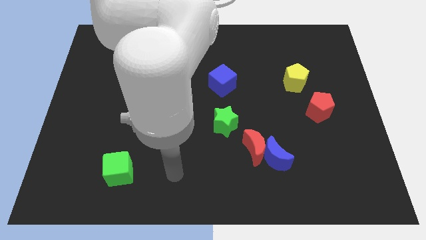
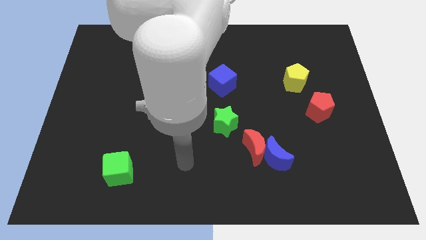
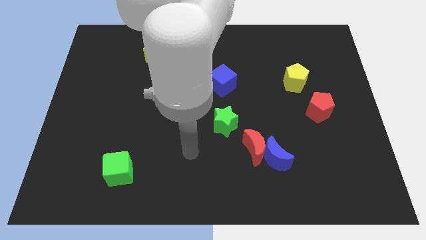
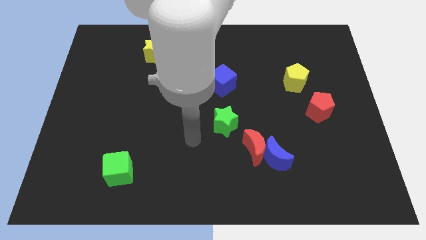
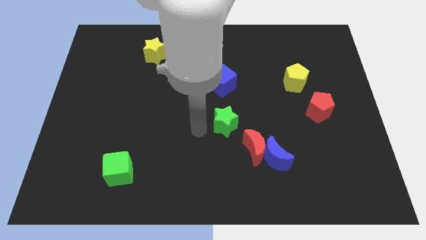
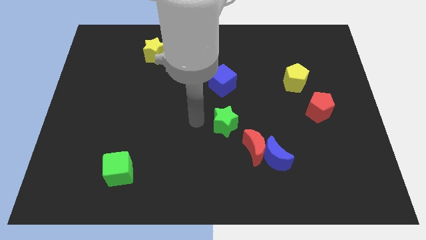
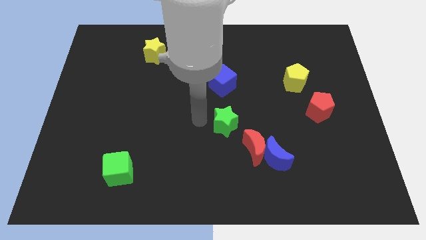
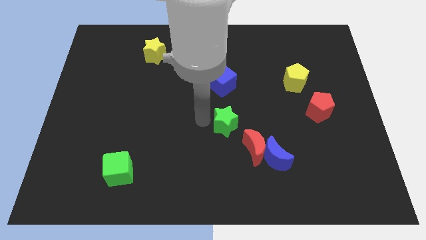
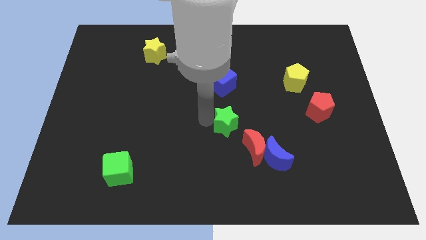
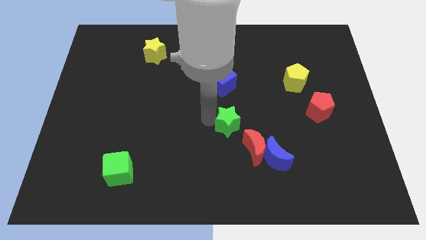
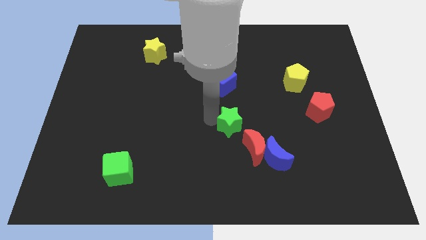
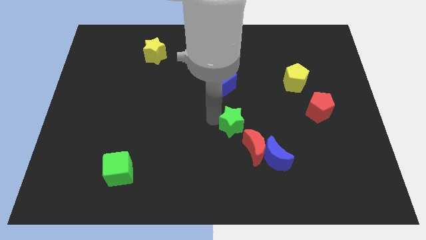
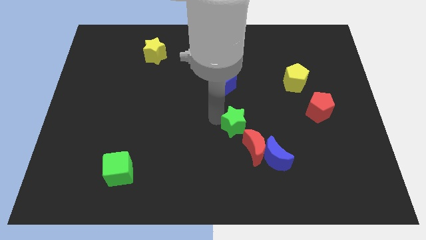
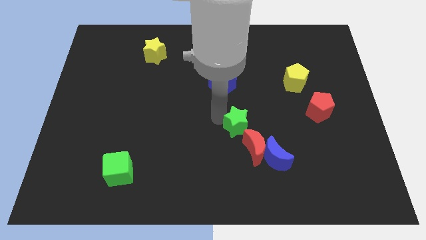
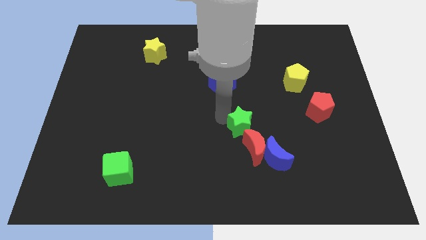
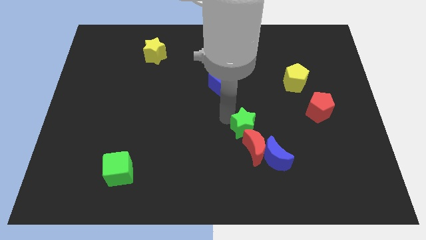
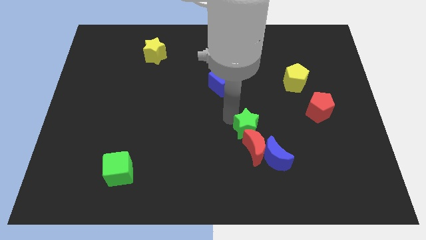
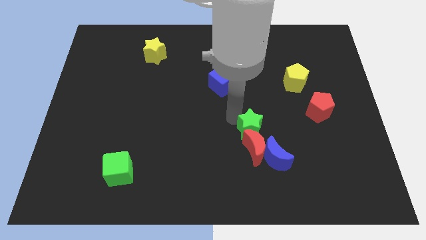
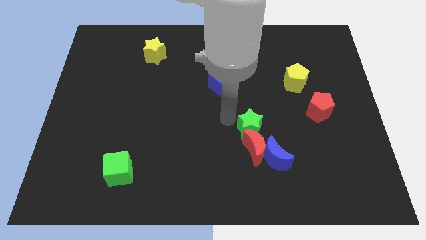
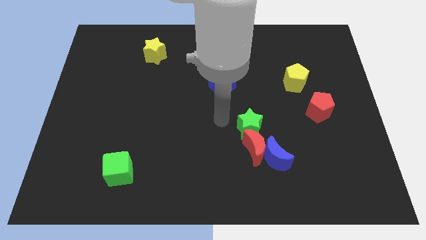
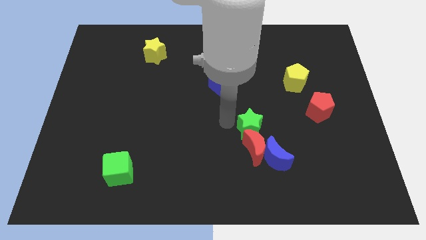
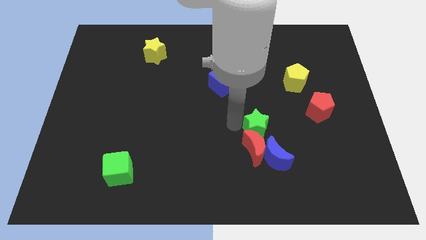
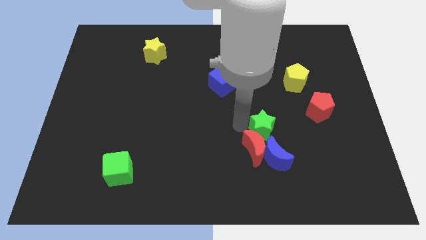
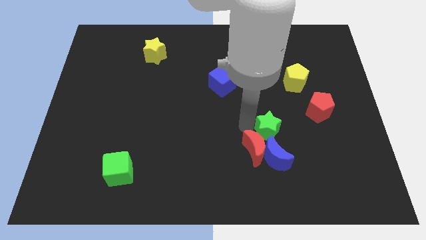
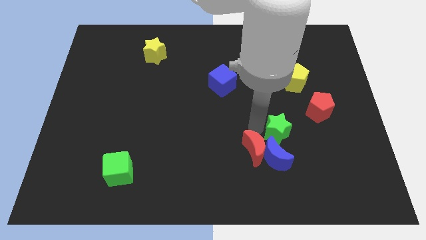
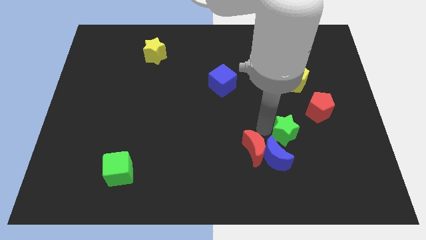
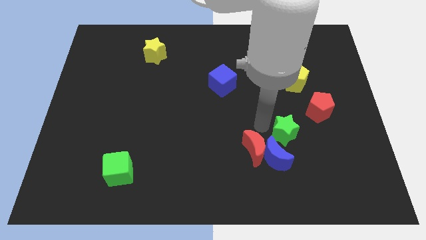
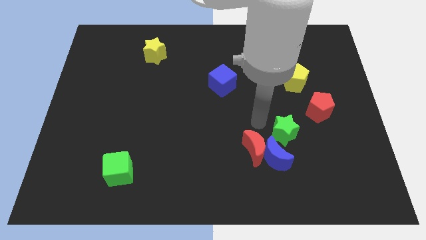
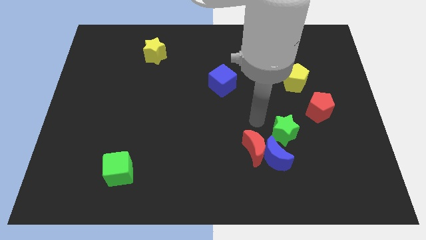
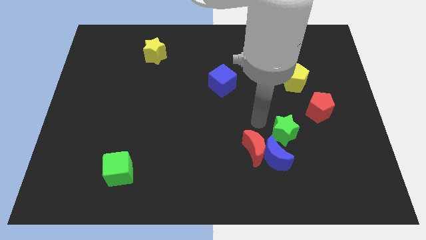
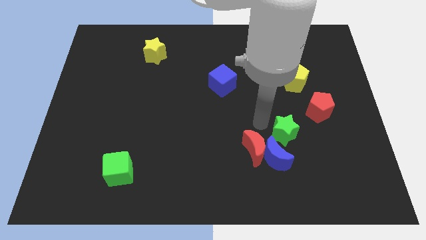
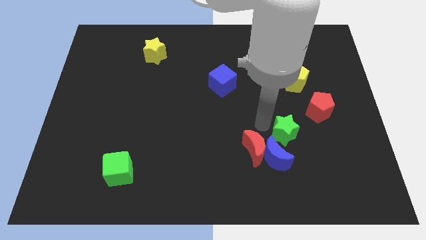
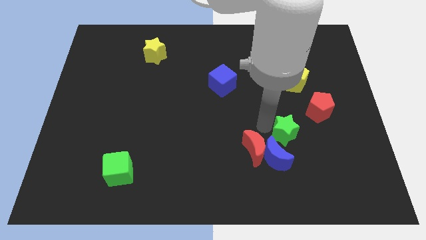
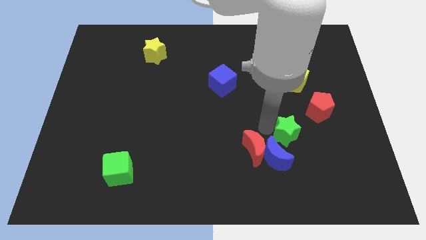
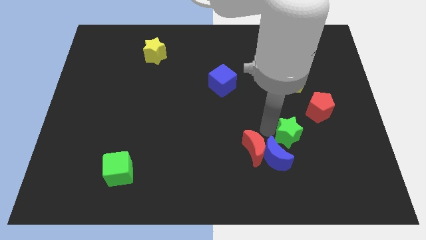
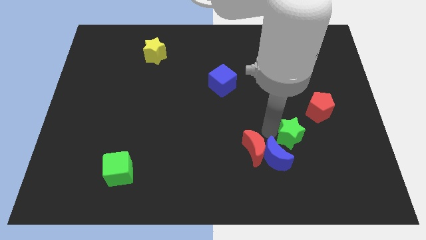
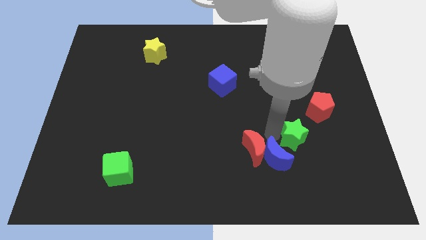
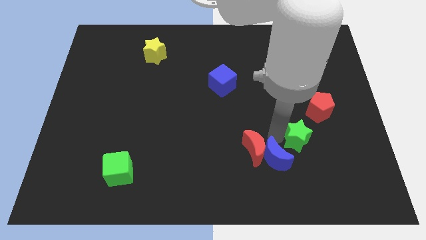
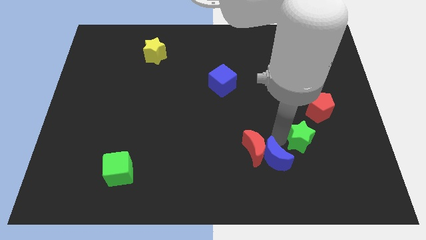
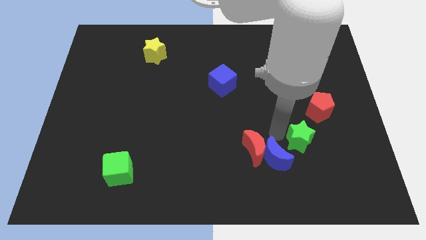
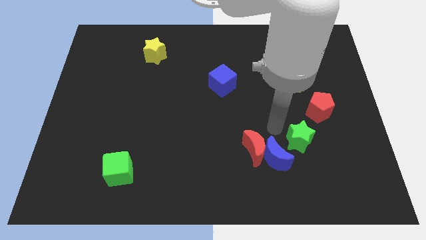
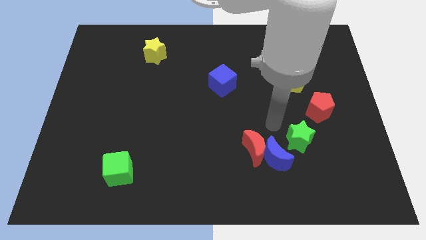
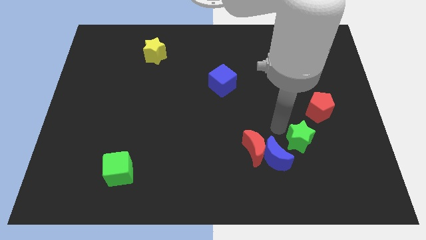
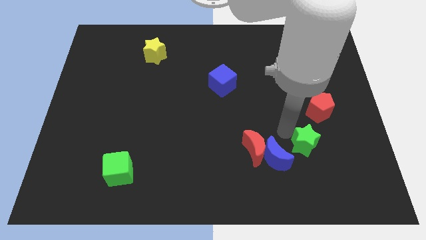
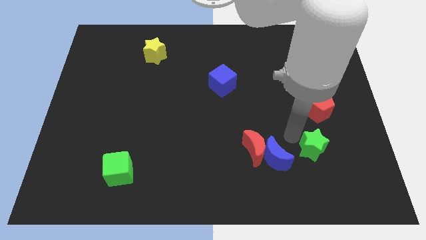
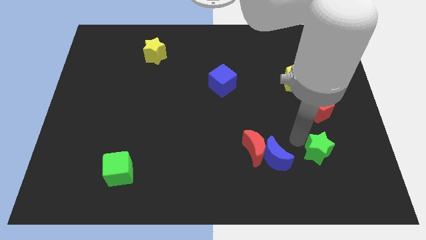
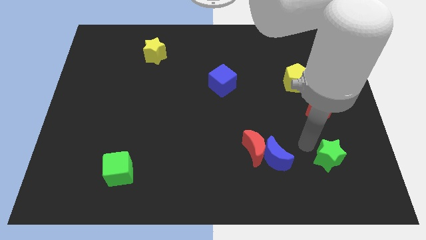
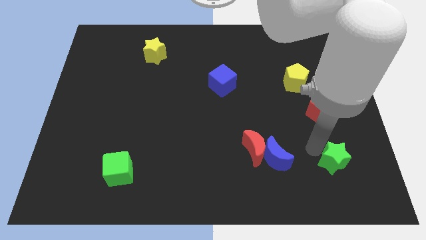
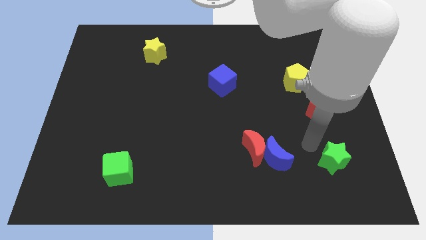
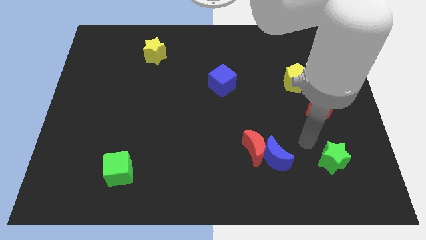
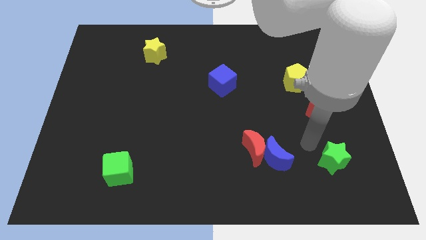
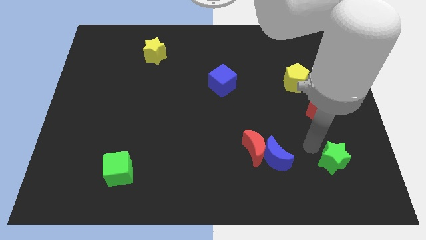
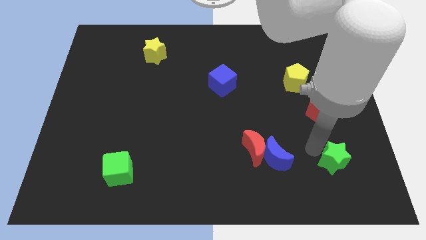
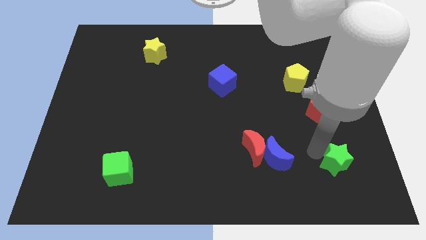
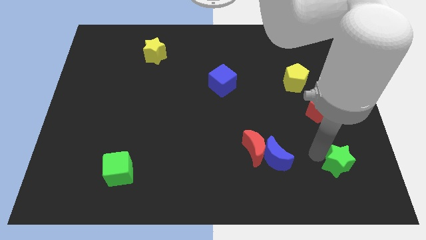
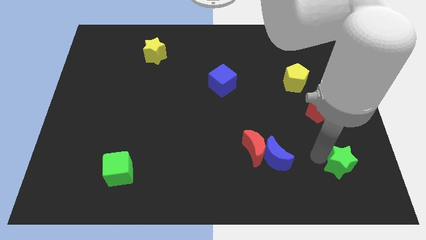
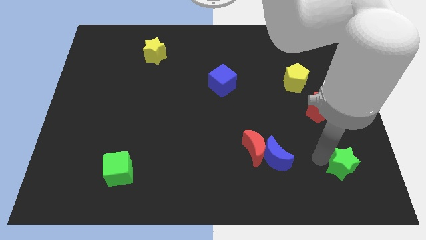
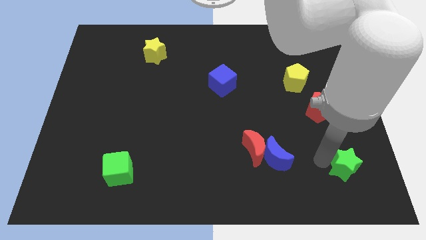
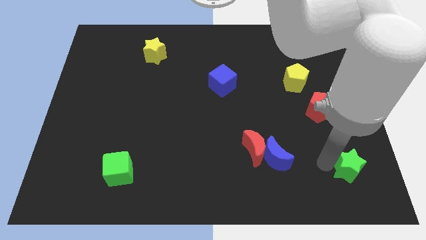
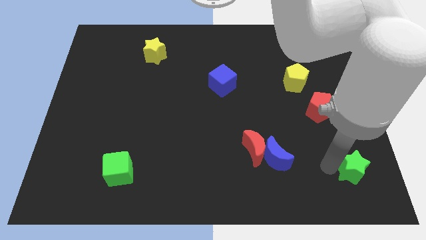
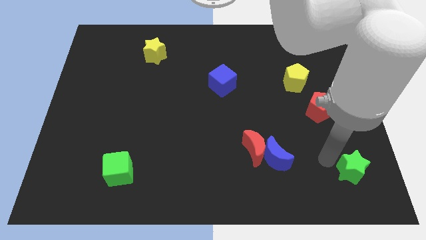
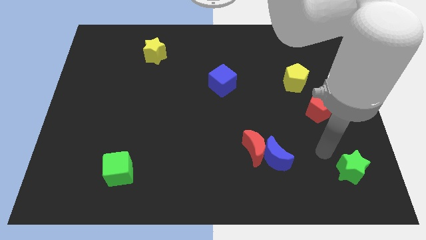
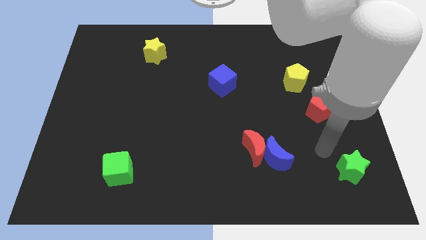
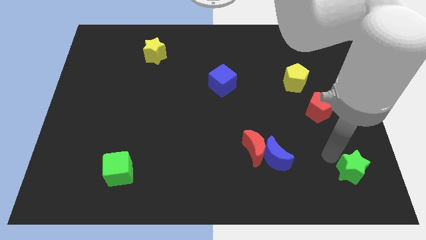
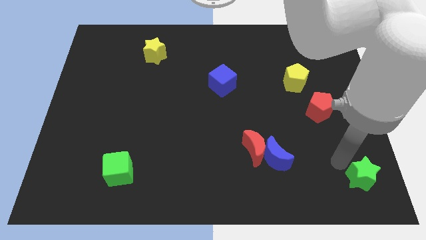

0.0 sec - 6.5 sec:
move the green star to the lower right corner
